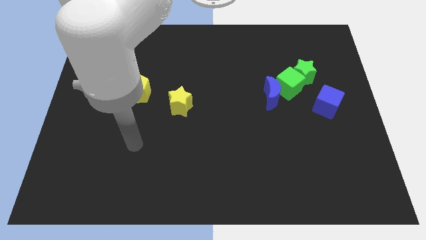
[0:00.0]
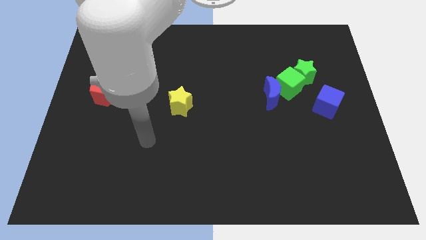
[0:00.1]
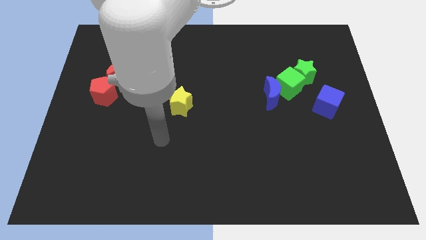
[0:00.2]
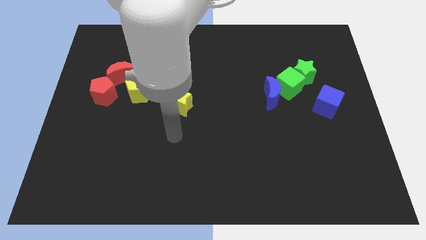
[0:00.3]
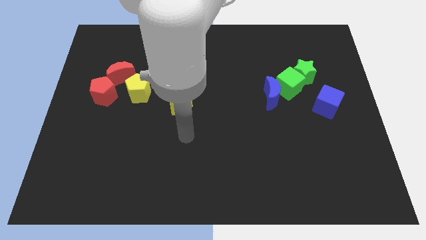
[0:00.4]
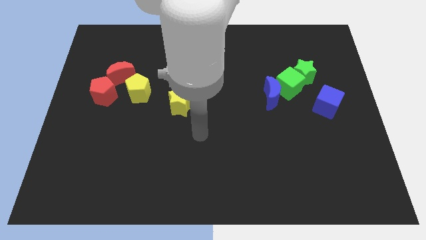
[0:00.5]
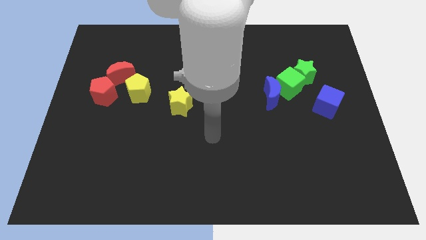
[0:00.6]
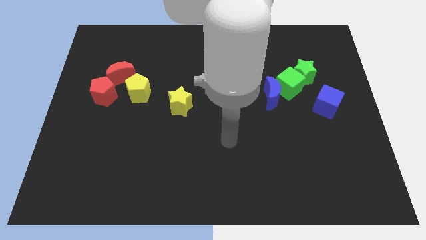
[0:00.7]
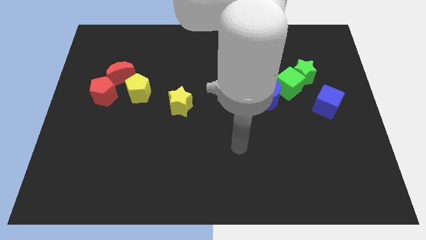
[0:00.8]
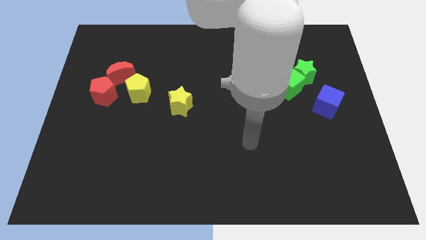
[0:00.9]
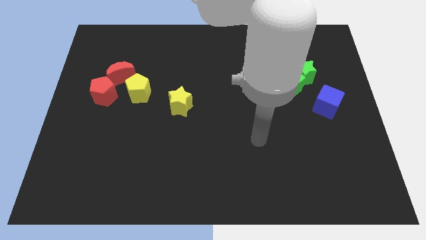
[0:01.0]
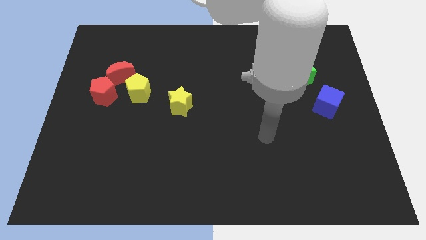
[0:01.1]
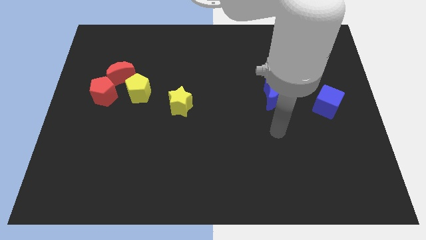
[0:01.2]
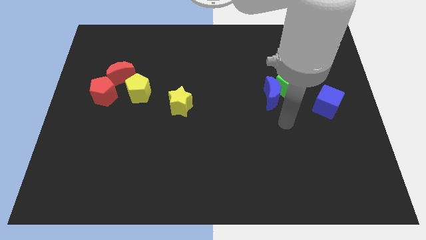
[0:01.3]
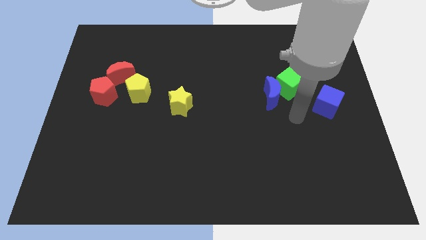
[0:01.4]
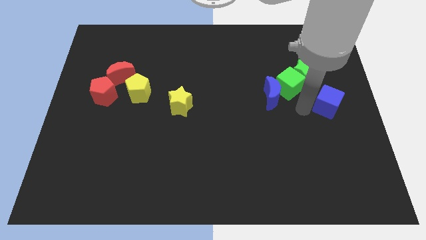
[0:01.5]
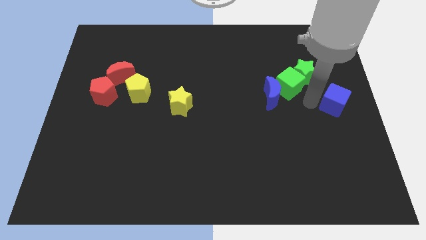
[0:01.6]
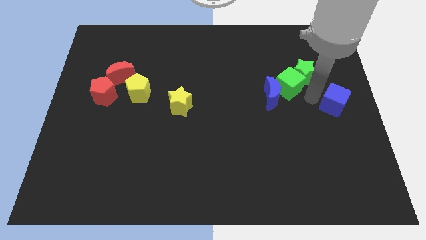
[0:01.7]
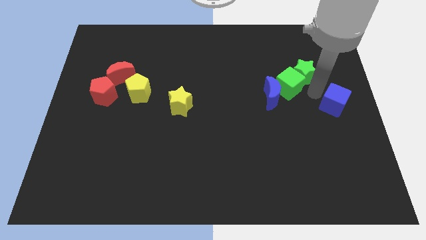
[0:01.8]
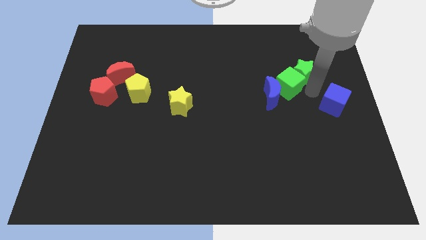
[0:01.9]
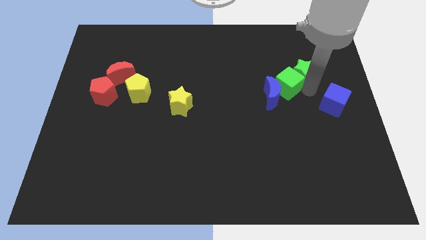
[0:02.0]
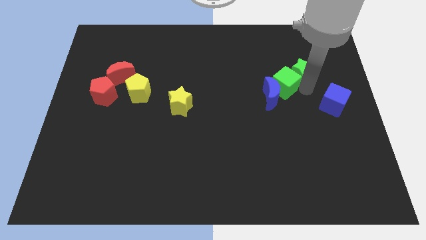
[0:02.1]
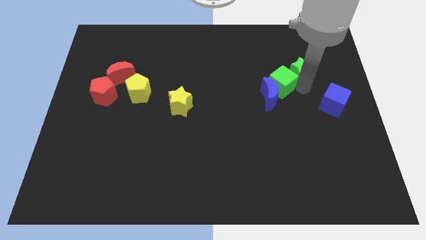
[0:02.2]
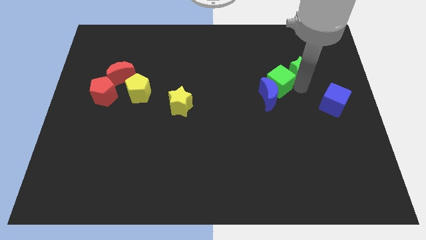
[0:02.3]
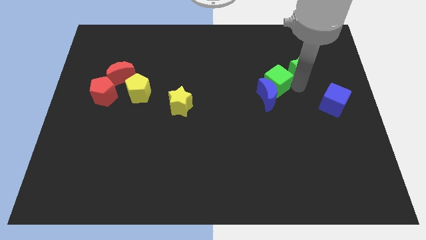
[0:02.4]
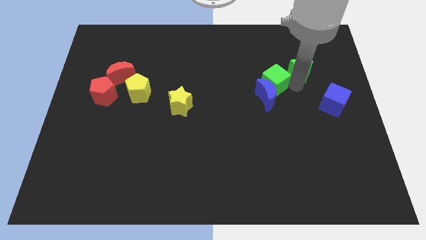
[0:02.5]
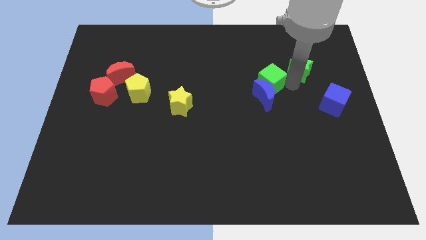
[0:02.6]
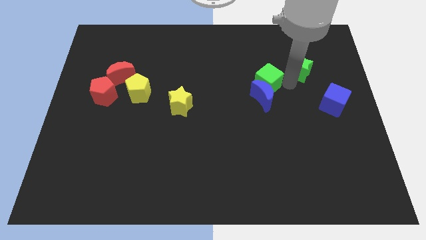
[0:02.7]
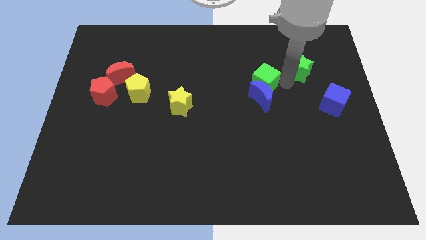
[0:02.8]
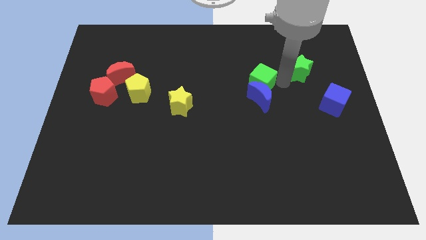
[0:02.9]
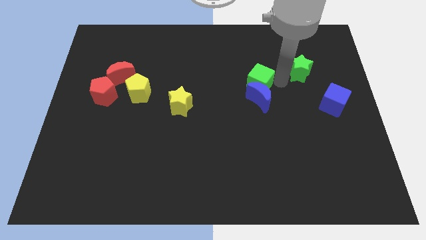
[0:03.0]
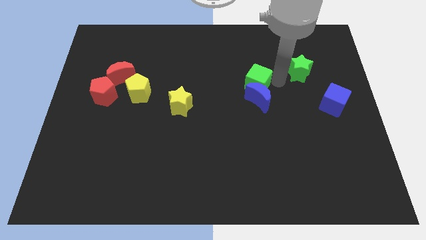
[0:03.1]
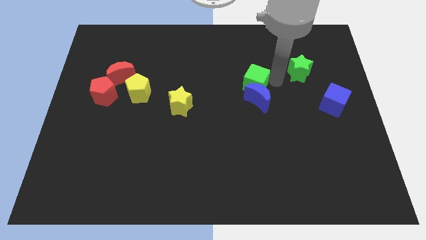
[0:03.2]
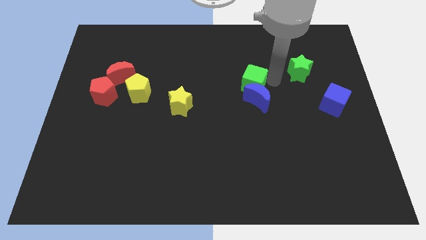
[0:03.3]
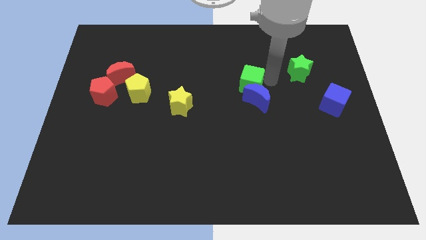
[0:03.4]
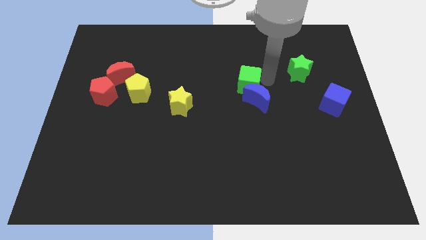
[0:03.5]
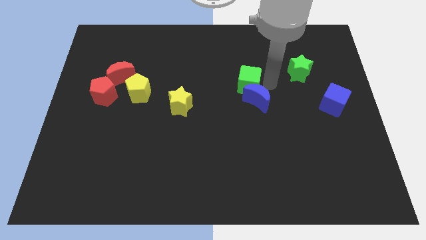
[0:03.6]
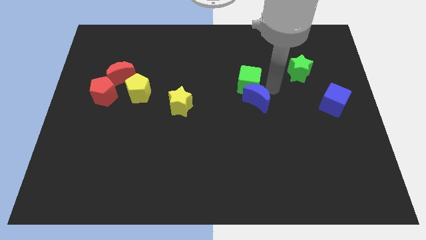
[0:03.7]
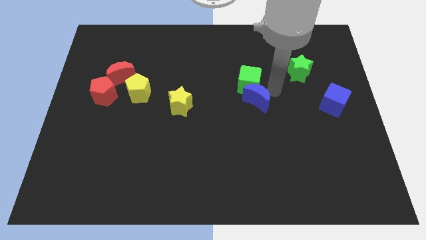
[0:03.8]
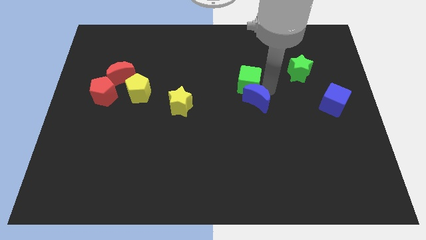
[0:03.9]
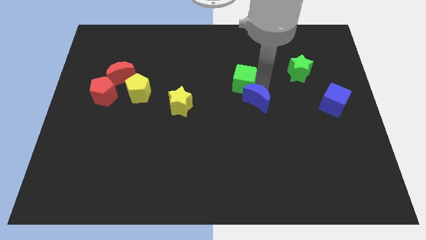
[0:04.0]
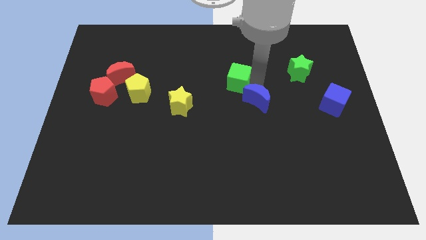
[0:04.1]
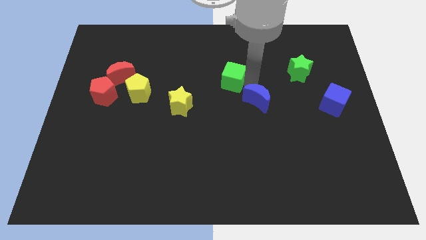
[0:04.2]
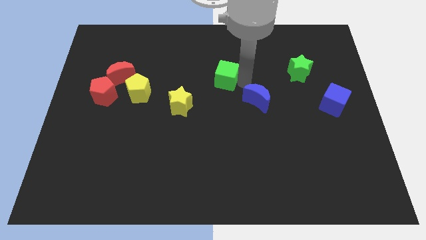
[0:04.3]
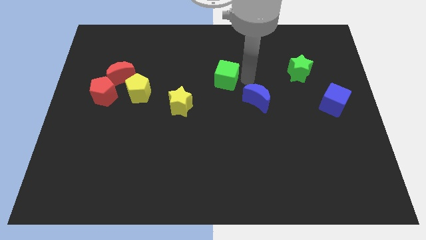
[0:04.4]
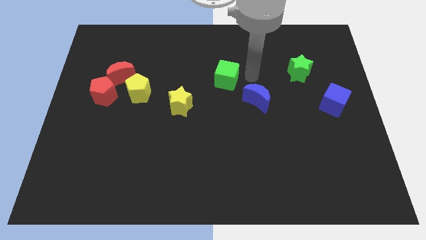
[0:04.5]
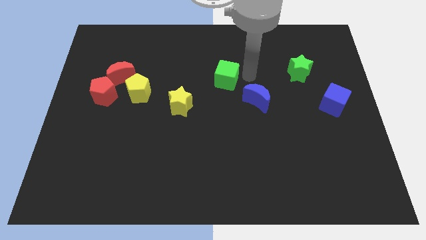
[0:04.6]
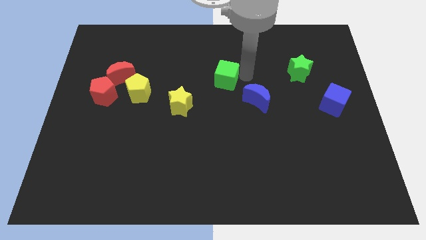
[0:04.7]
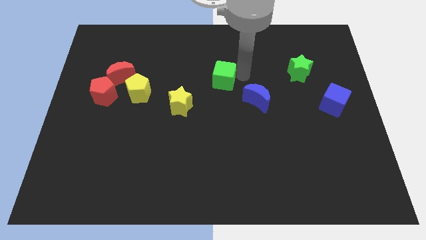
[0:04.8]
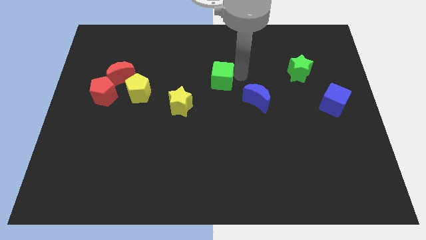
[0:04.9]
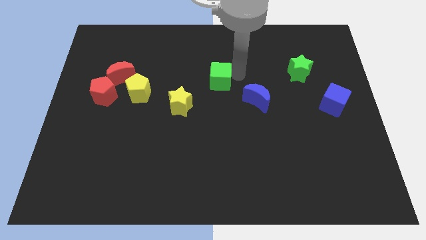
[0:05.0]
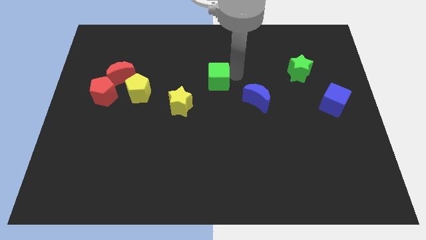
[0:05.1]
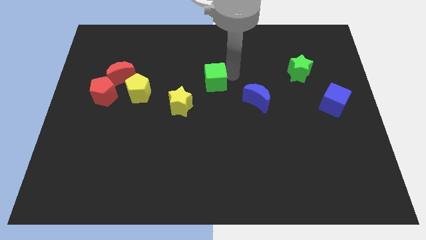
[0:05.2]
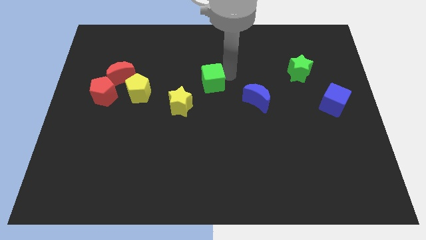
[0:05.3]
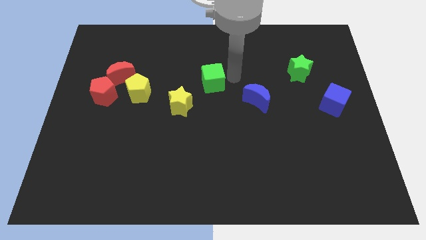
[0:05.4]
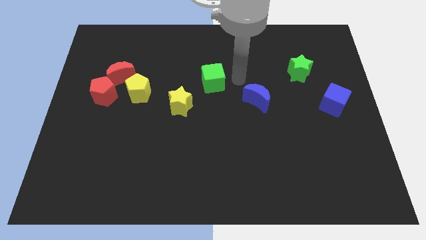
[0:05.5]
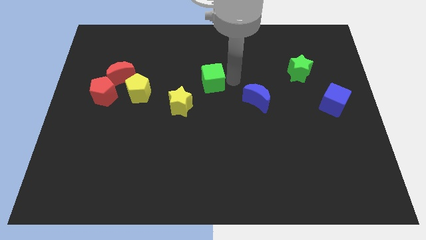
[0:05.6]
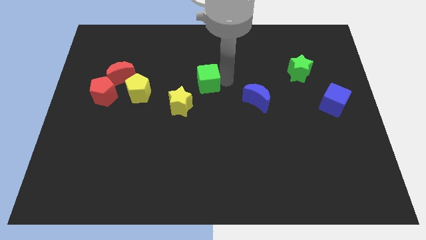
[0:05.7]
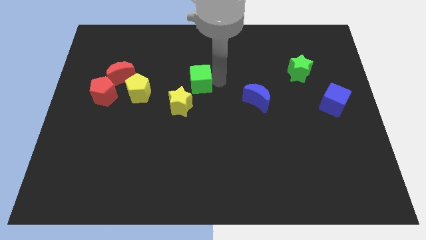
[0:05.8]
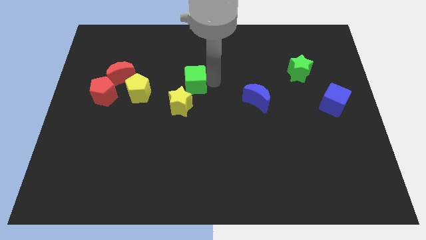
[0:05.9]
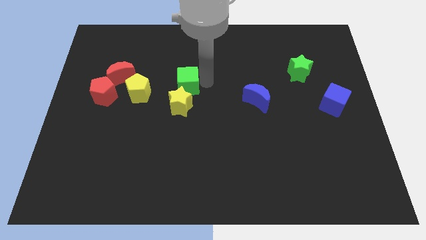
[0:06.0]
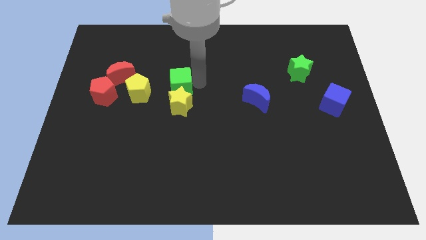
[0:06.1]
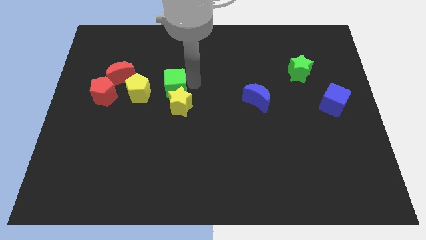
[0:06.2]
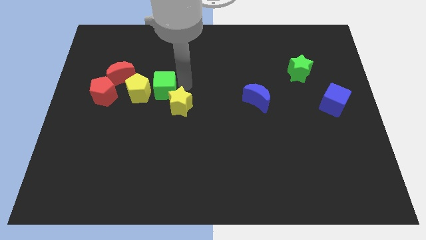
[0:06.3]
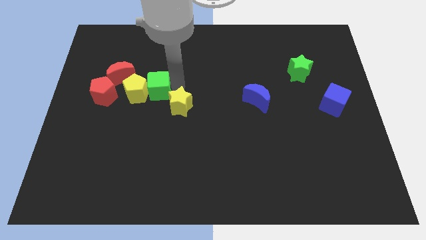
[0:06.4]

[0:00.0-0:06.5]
put the green cube towards the yellow pentagon

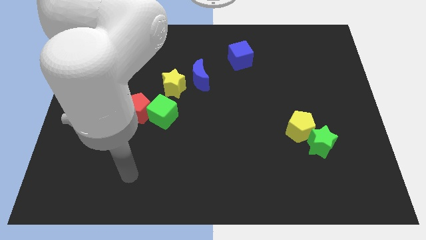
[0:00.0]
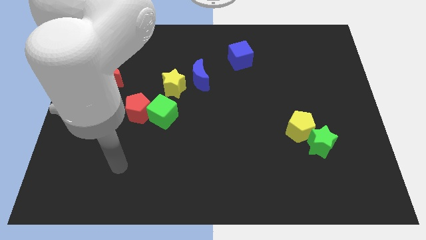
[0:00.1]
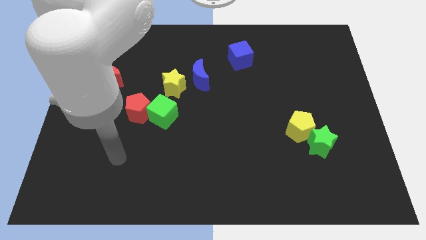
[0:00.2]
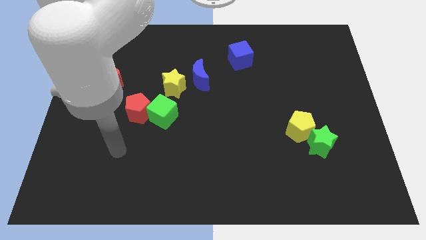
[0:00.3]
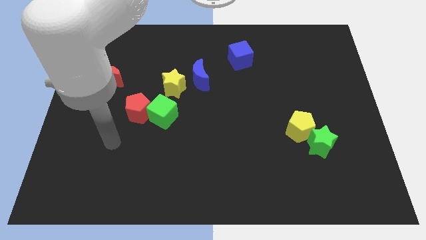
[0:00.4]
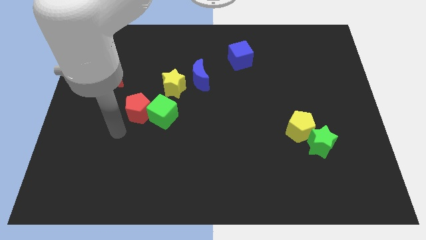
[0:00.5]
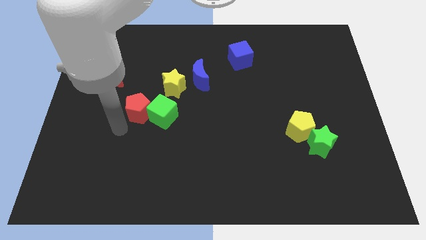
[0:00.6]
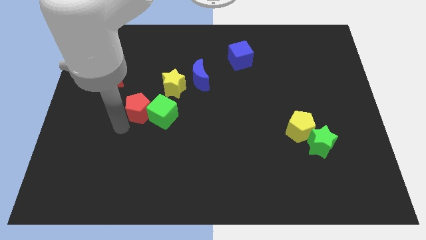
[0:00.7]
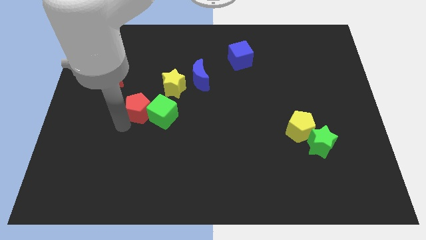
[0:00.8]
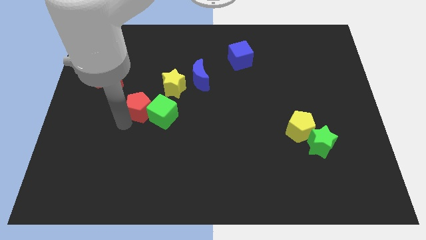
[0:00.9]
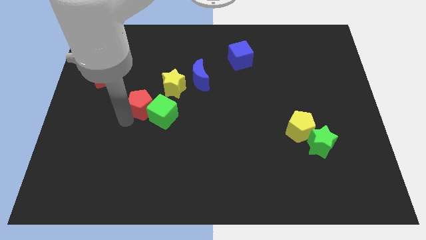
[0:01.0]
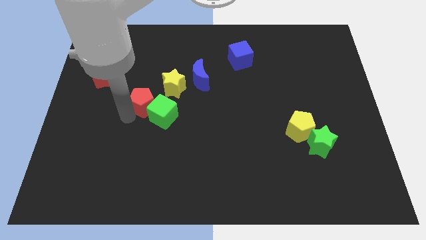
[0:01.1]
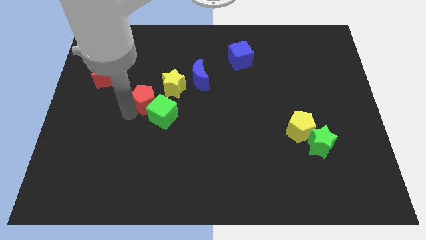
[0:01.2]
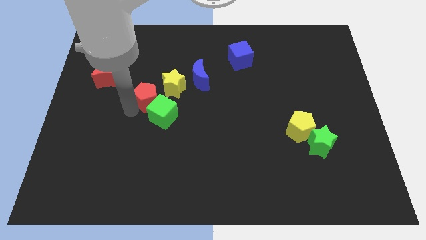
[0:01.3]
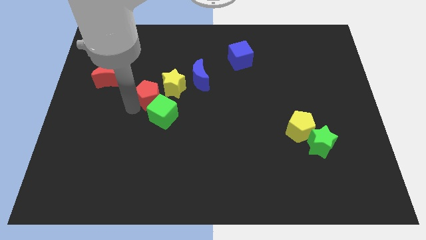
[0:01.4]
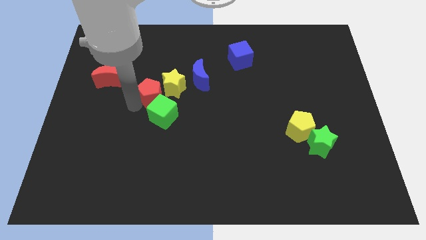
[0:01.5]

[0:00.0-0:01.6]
move the red pentagon towards the yellow star
